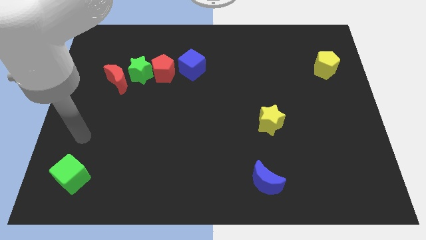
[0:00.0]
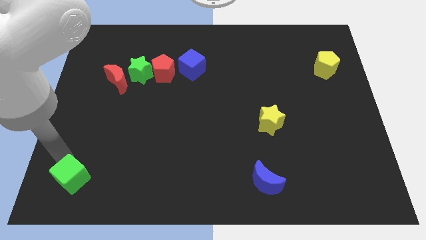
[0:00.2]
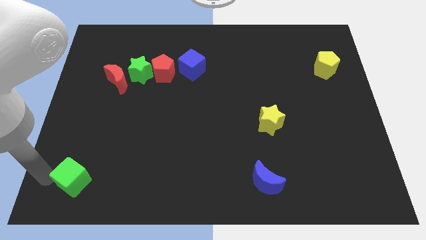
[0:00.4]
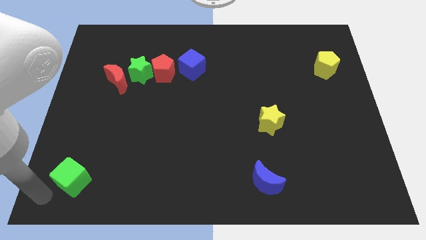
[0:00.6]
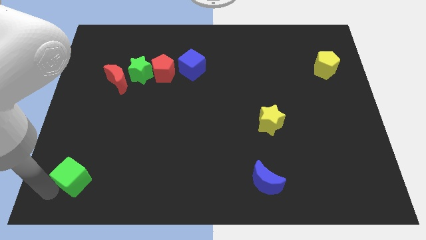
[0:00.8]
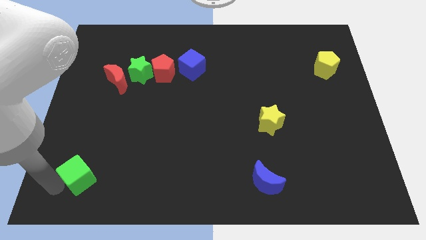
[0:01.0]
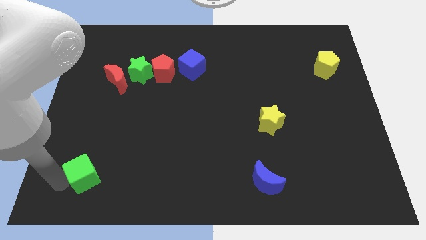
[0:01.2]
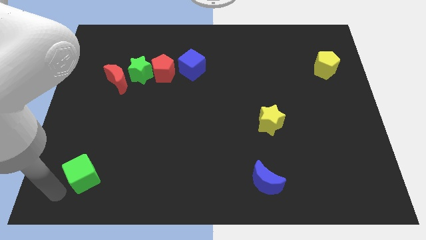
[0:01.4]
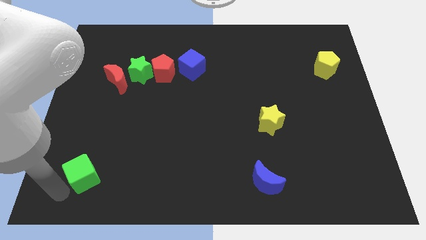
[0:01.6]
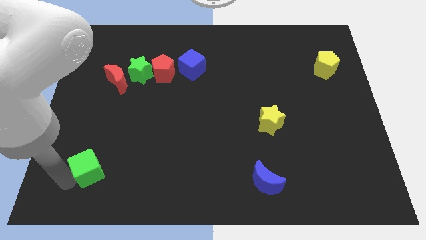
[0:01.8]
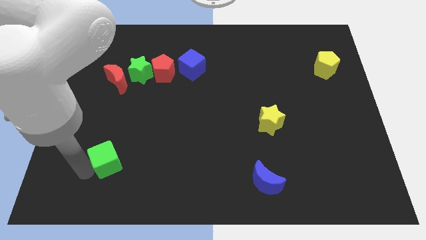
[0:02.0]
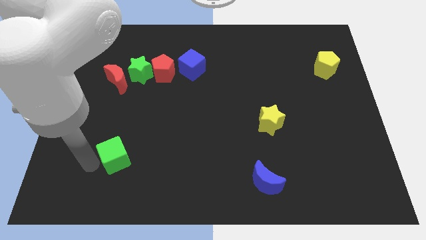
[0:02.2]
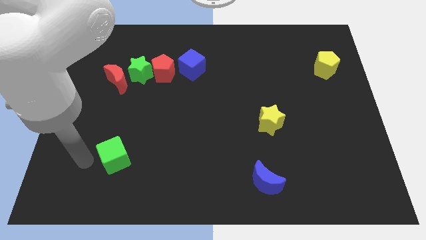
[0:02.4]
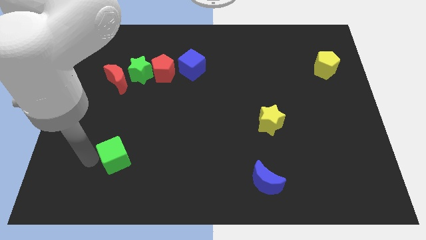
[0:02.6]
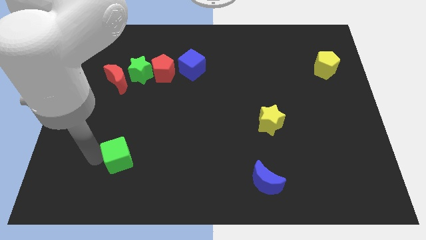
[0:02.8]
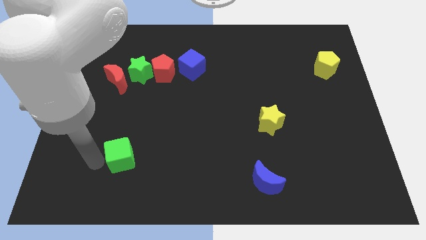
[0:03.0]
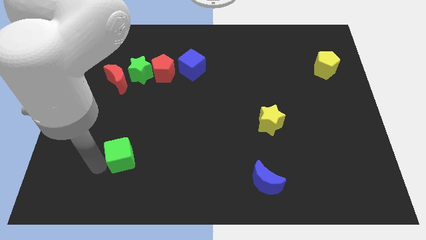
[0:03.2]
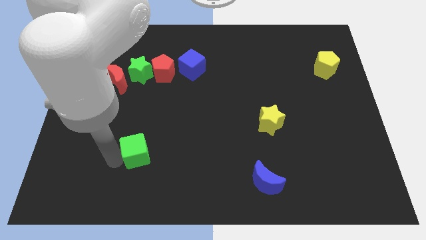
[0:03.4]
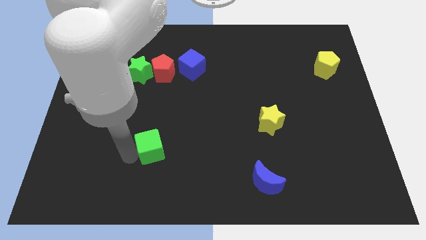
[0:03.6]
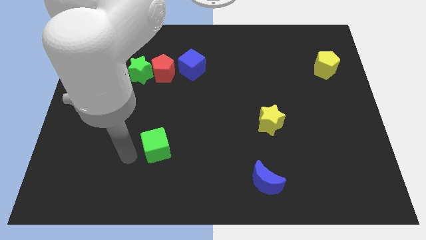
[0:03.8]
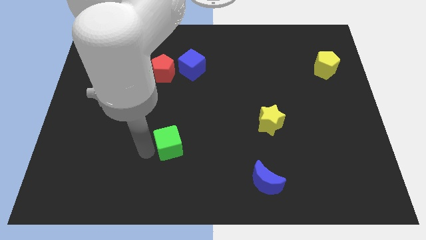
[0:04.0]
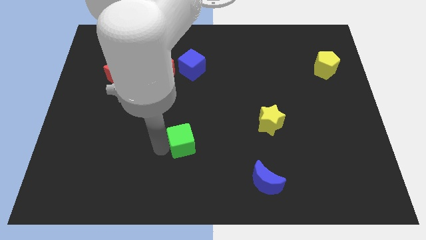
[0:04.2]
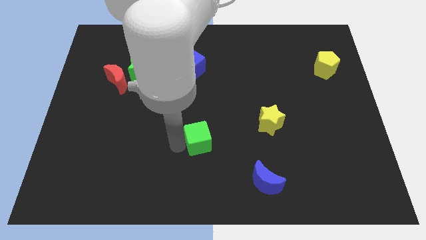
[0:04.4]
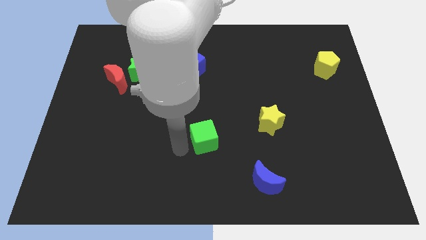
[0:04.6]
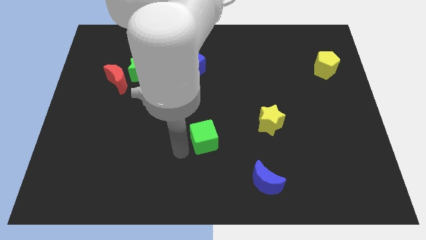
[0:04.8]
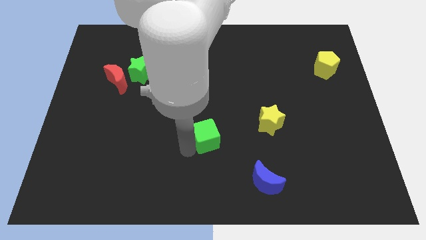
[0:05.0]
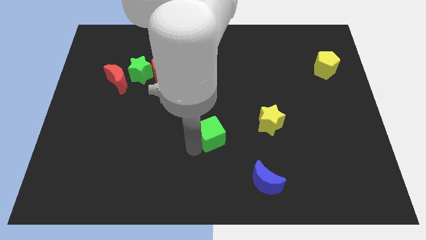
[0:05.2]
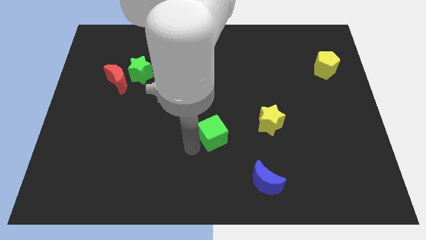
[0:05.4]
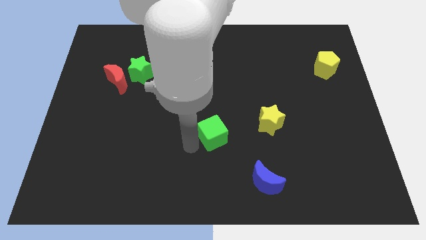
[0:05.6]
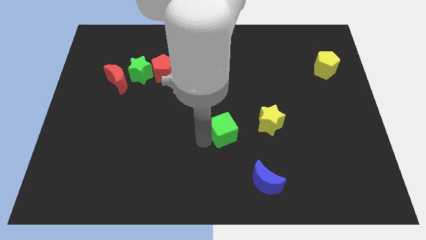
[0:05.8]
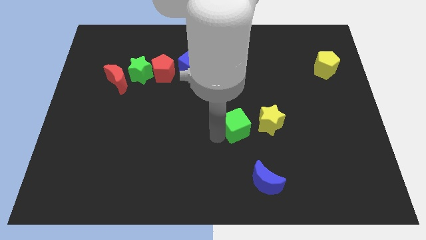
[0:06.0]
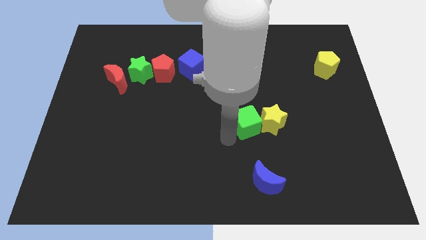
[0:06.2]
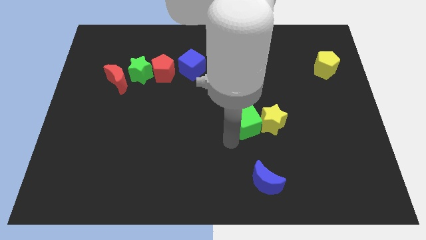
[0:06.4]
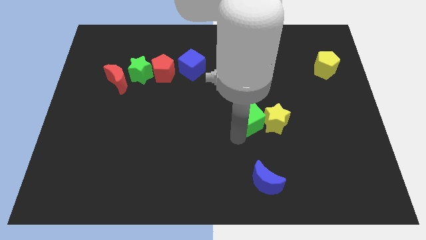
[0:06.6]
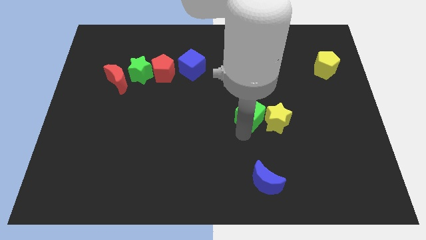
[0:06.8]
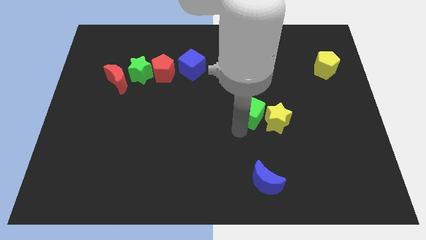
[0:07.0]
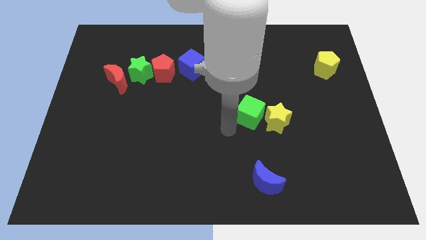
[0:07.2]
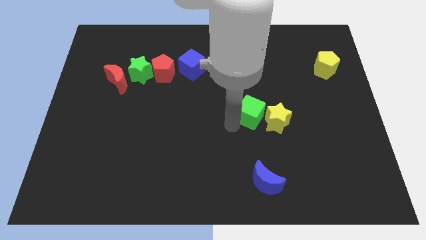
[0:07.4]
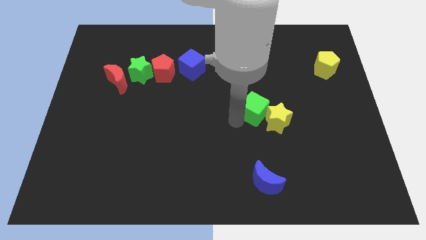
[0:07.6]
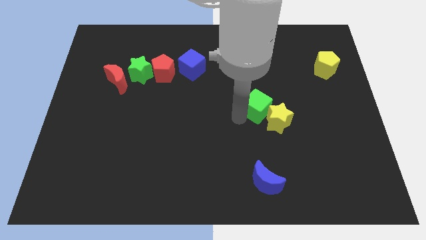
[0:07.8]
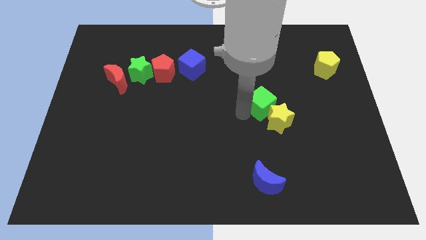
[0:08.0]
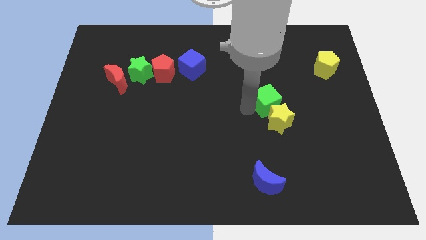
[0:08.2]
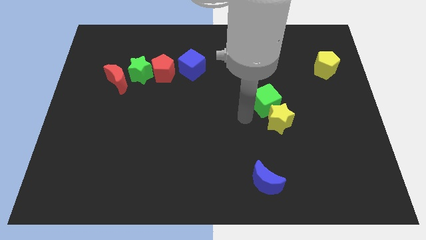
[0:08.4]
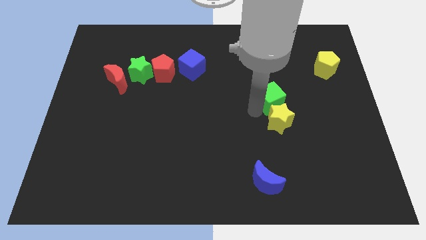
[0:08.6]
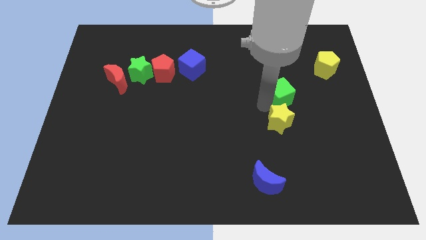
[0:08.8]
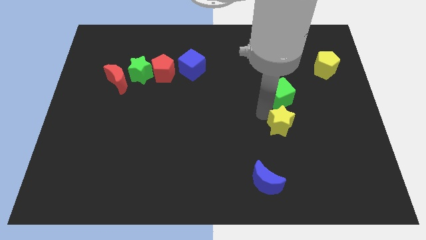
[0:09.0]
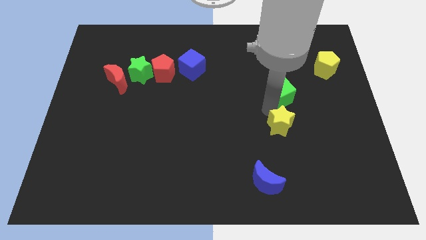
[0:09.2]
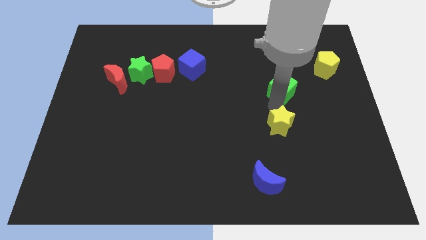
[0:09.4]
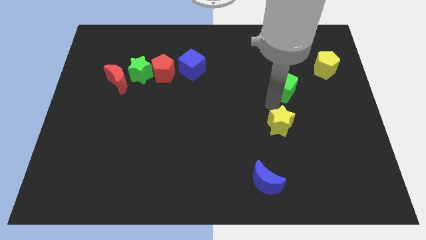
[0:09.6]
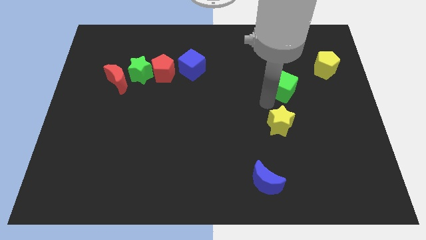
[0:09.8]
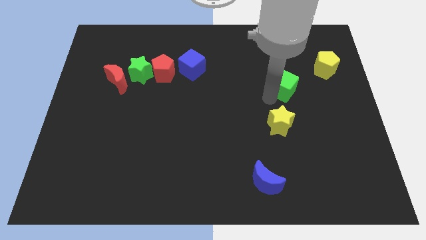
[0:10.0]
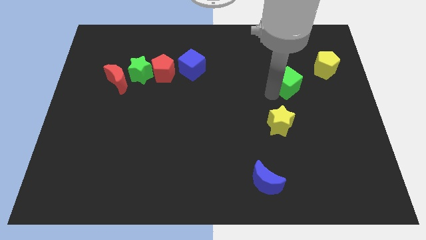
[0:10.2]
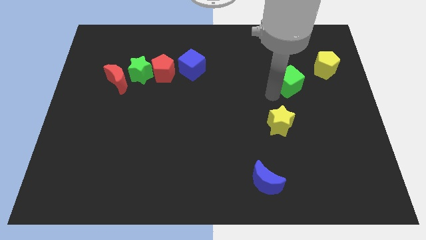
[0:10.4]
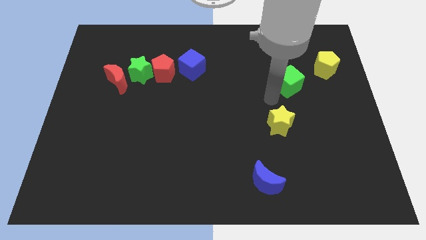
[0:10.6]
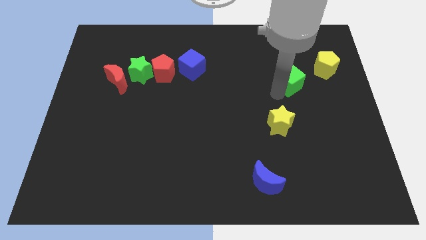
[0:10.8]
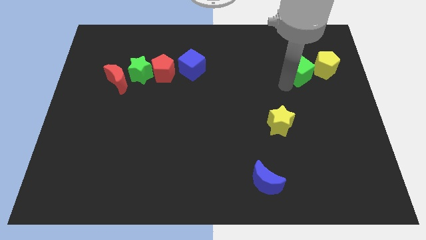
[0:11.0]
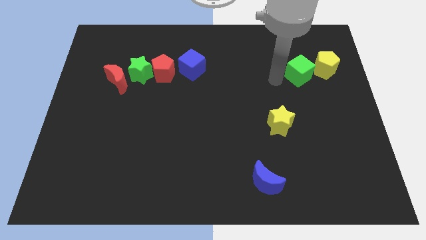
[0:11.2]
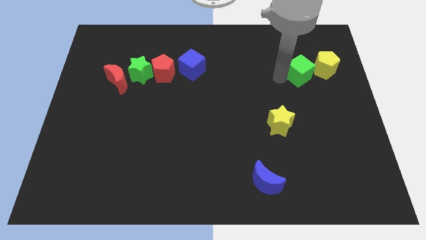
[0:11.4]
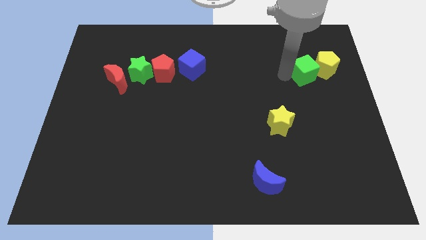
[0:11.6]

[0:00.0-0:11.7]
move the green cube next to the yellow pentagon

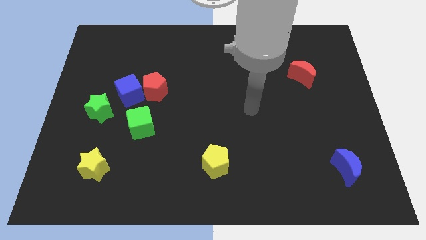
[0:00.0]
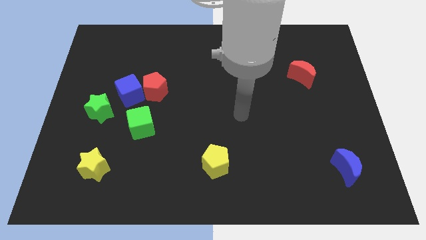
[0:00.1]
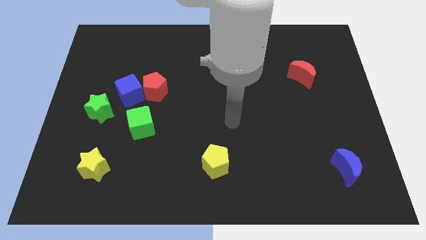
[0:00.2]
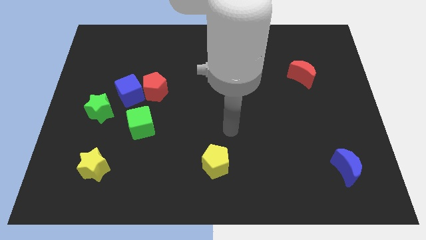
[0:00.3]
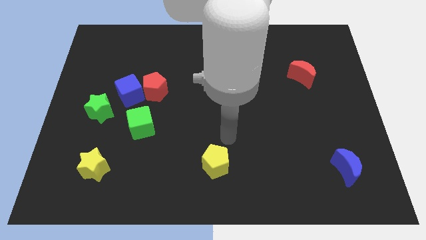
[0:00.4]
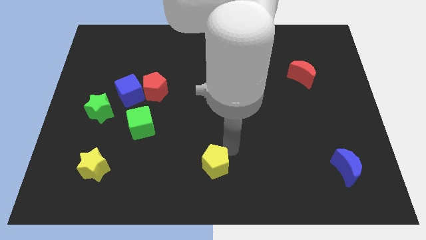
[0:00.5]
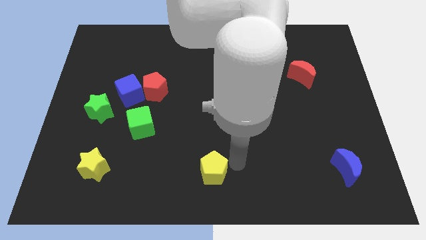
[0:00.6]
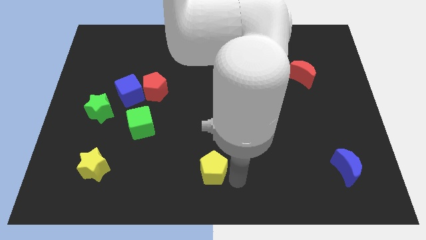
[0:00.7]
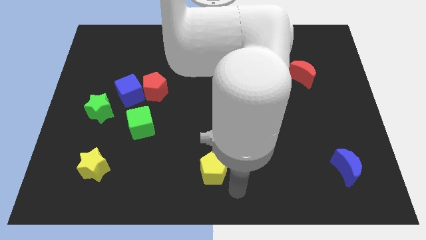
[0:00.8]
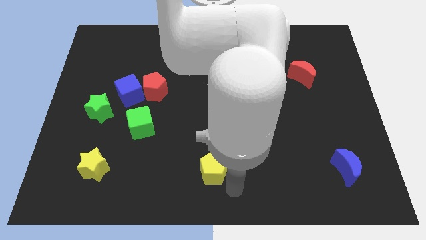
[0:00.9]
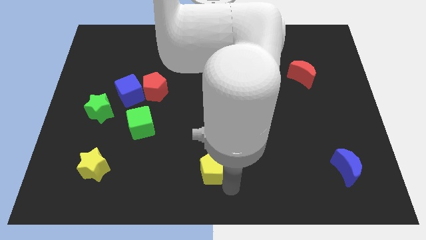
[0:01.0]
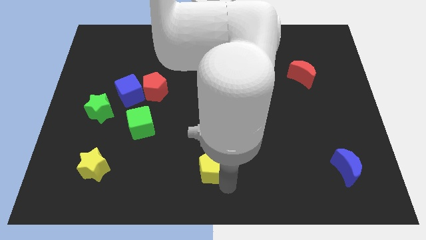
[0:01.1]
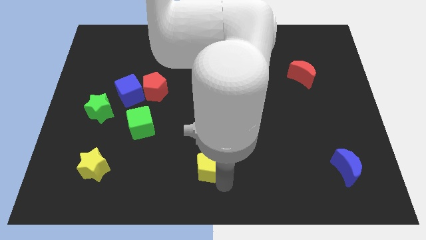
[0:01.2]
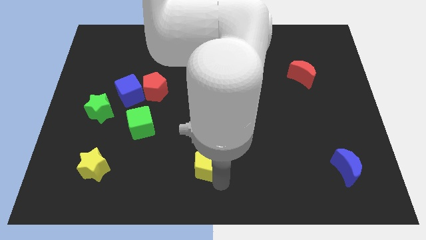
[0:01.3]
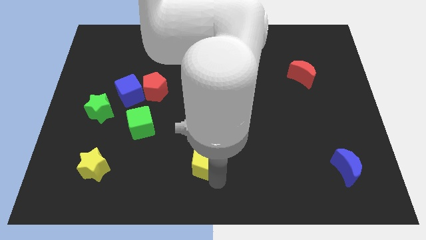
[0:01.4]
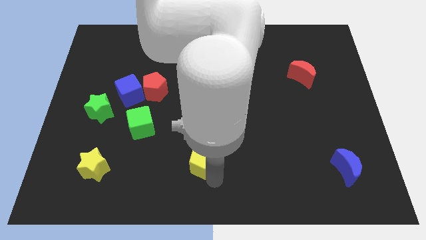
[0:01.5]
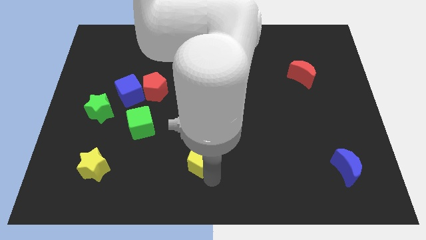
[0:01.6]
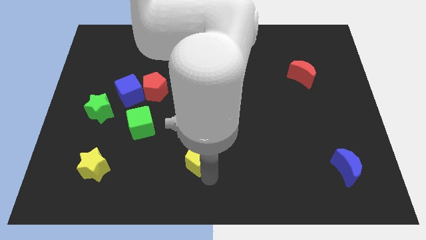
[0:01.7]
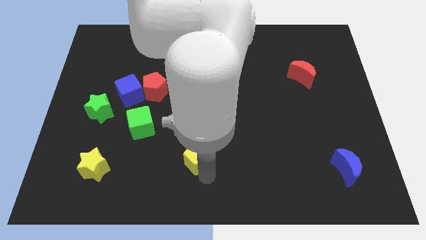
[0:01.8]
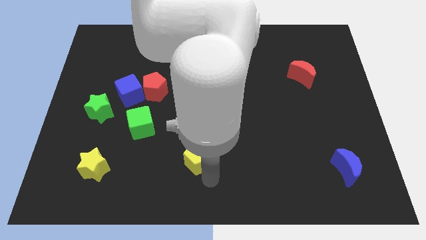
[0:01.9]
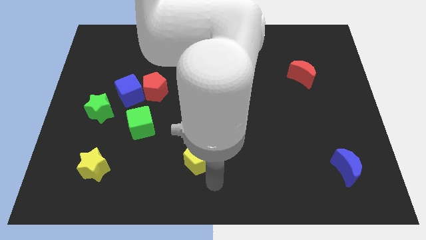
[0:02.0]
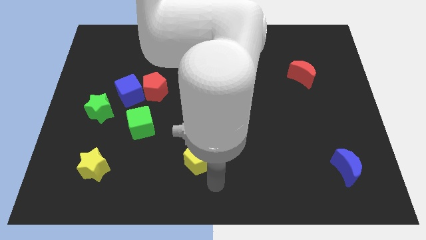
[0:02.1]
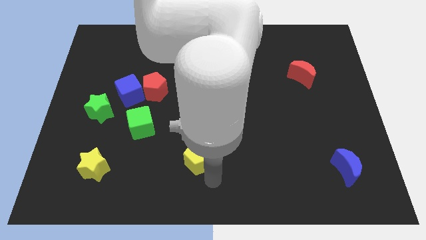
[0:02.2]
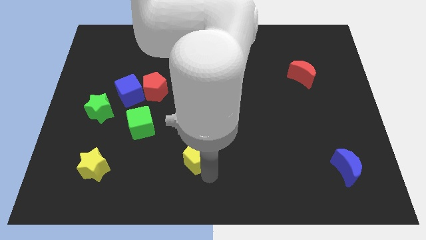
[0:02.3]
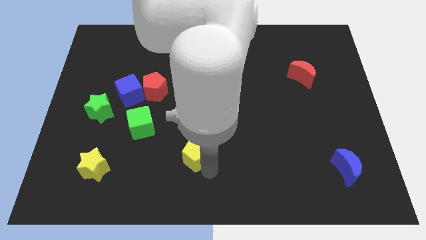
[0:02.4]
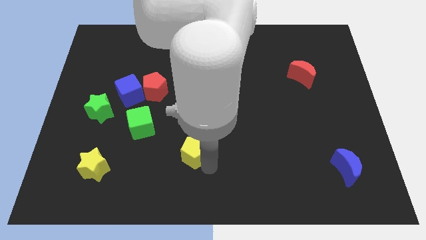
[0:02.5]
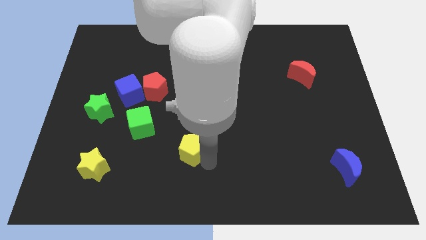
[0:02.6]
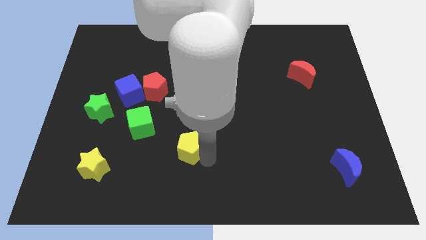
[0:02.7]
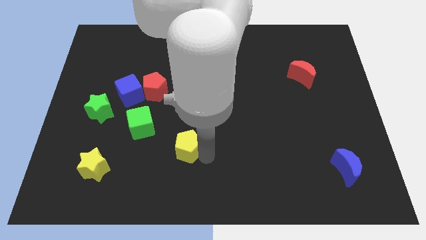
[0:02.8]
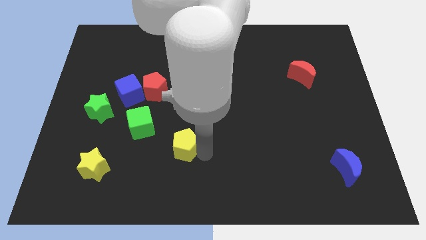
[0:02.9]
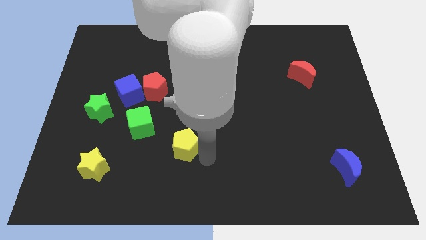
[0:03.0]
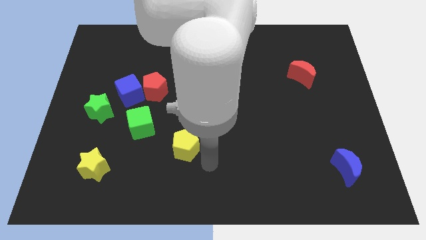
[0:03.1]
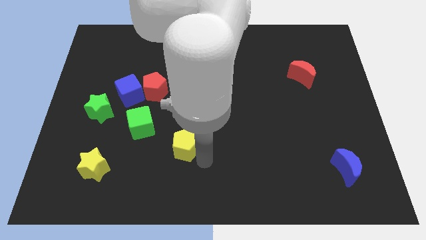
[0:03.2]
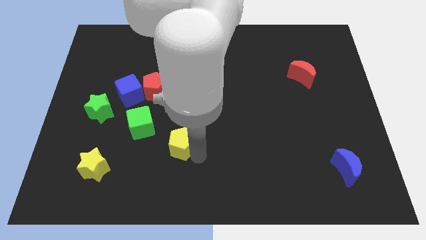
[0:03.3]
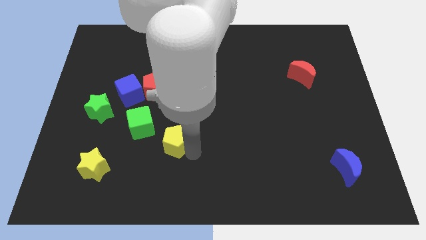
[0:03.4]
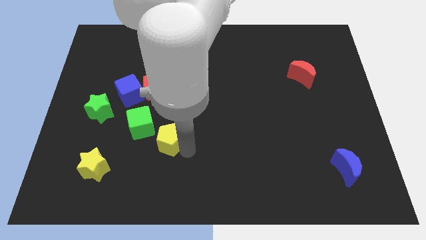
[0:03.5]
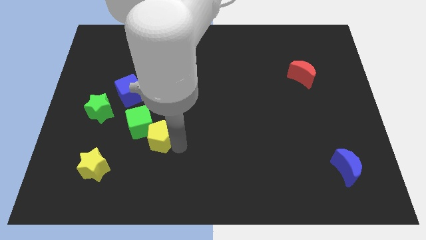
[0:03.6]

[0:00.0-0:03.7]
move the yellow pentagon close to the green cube
